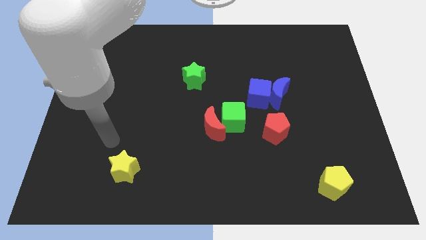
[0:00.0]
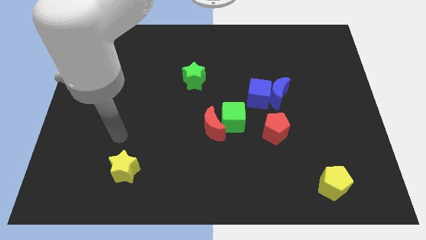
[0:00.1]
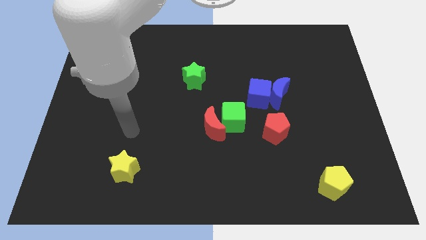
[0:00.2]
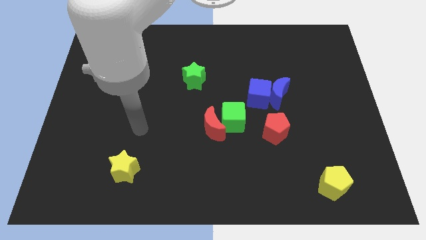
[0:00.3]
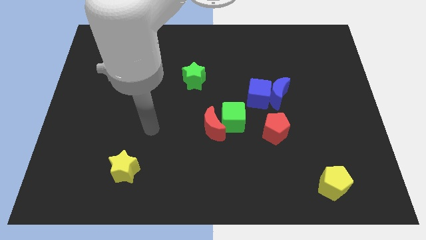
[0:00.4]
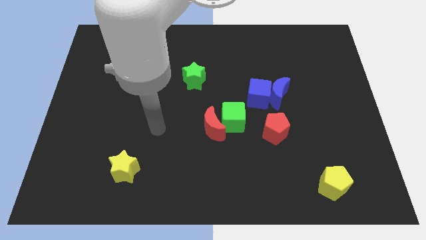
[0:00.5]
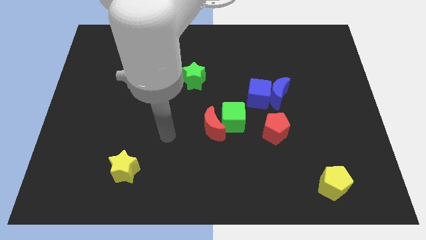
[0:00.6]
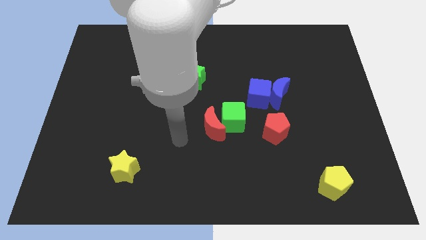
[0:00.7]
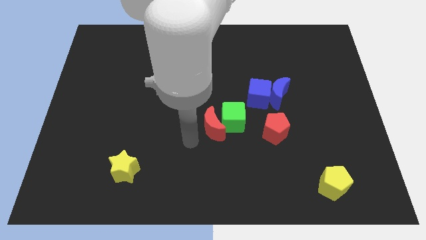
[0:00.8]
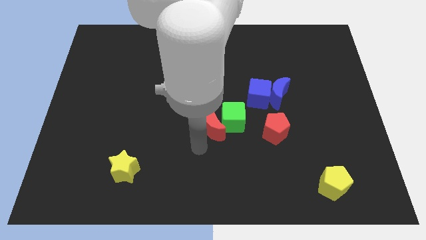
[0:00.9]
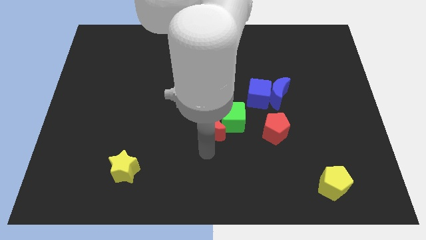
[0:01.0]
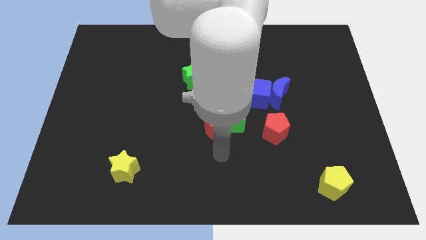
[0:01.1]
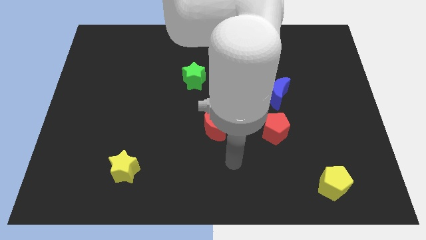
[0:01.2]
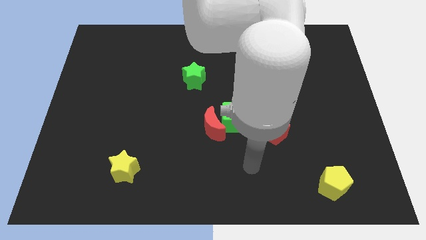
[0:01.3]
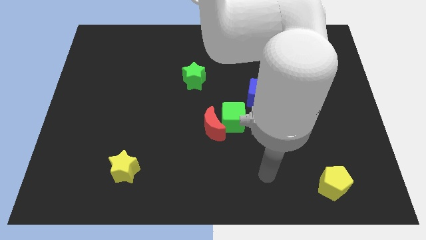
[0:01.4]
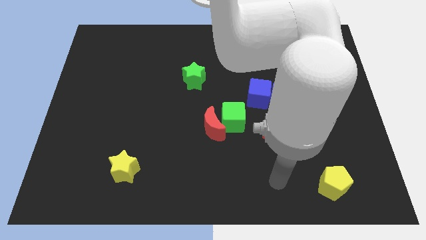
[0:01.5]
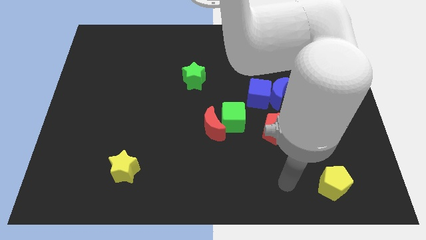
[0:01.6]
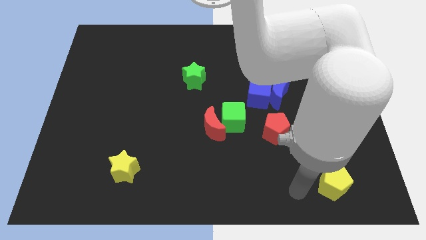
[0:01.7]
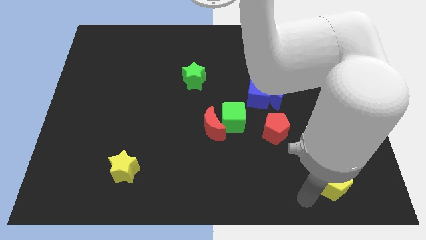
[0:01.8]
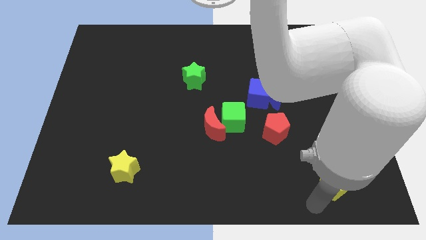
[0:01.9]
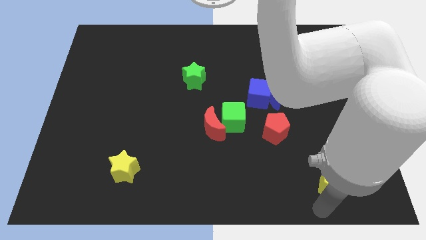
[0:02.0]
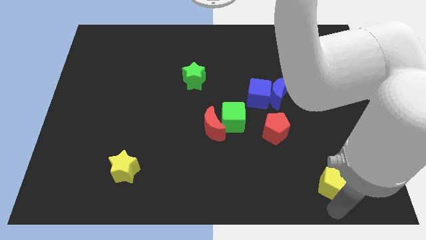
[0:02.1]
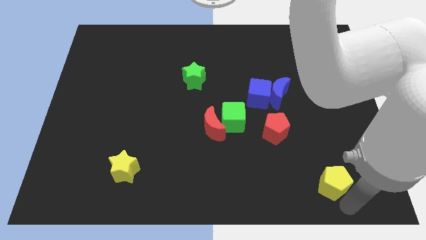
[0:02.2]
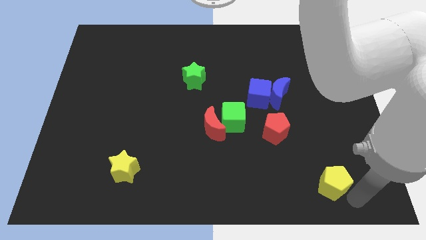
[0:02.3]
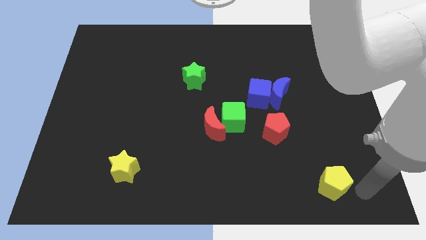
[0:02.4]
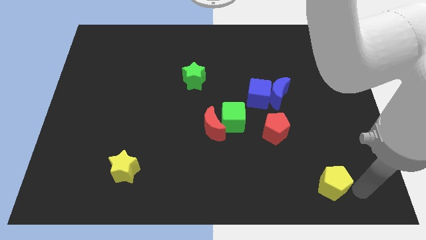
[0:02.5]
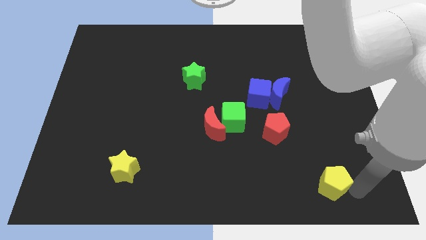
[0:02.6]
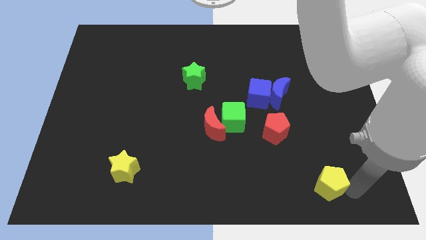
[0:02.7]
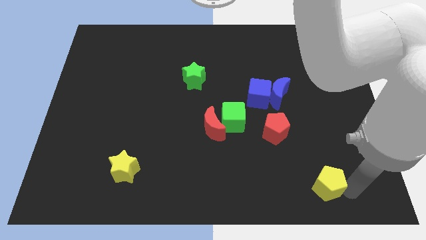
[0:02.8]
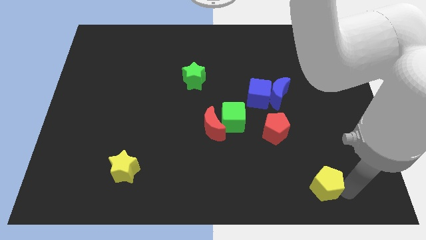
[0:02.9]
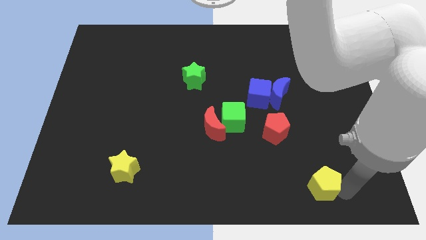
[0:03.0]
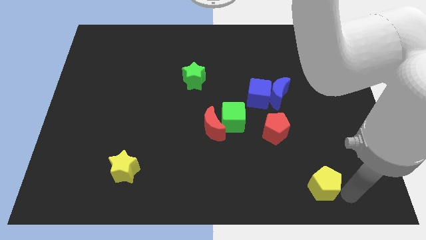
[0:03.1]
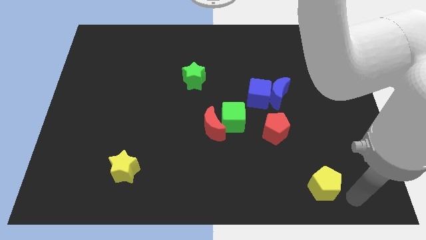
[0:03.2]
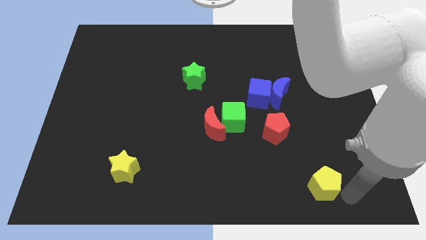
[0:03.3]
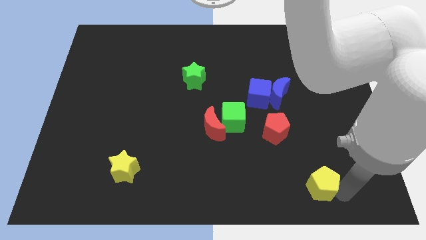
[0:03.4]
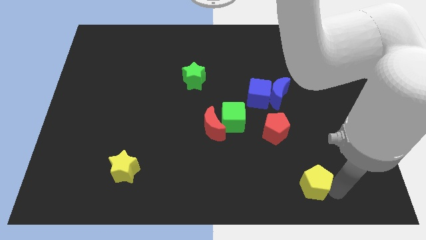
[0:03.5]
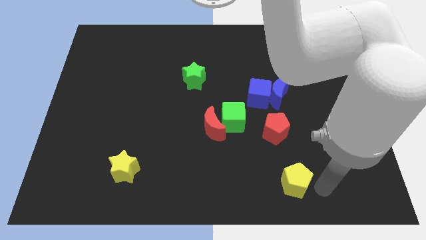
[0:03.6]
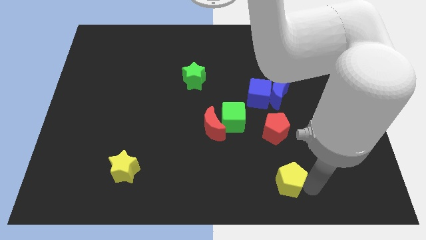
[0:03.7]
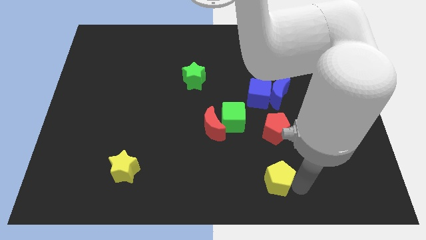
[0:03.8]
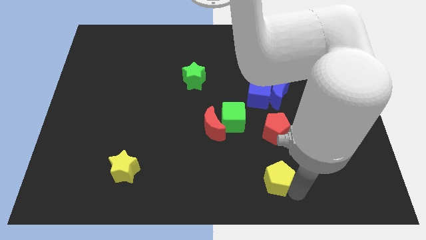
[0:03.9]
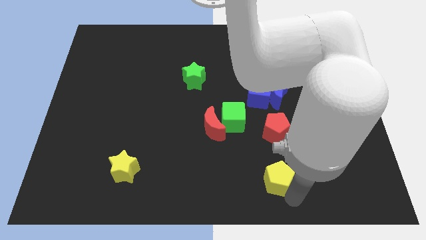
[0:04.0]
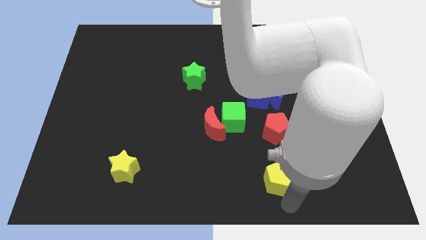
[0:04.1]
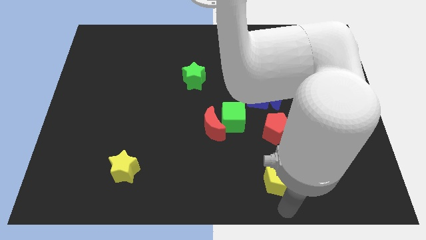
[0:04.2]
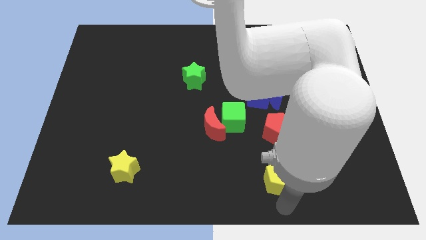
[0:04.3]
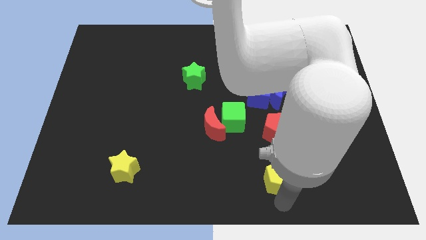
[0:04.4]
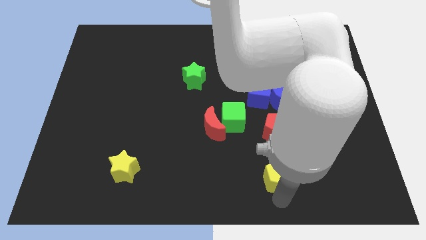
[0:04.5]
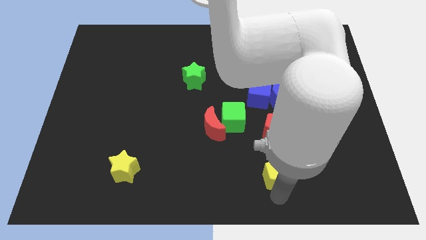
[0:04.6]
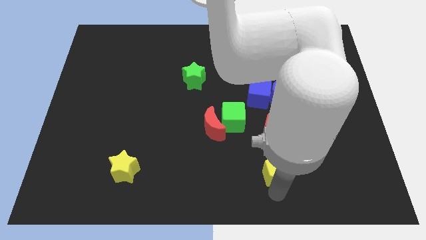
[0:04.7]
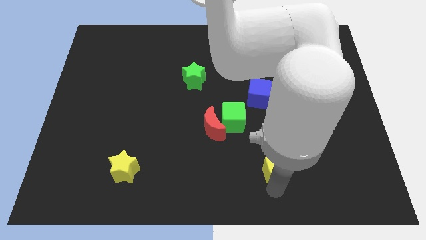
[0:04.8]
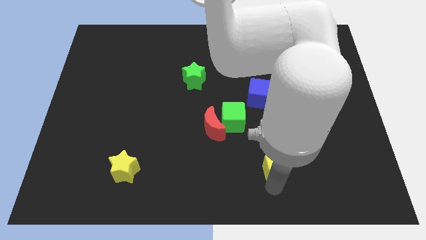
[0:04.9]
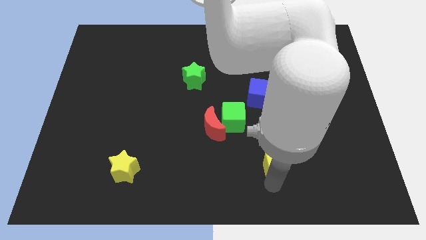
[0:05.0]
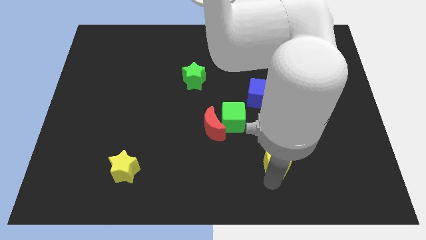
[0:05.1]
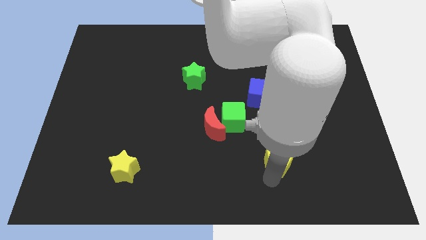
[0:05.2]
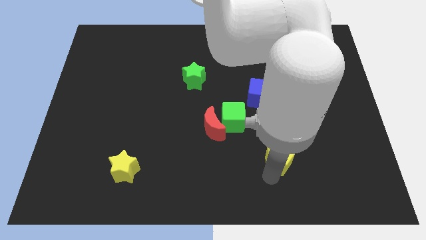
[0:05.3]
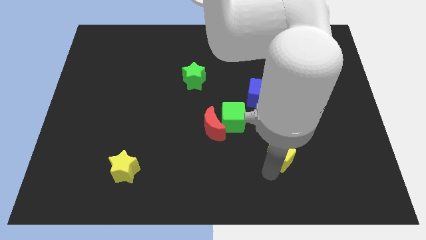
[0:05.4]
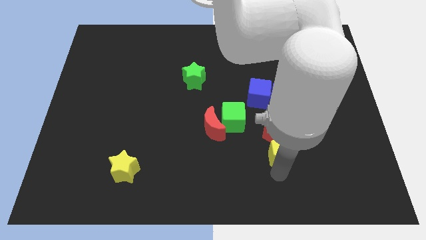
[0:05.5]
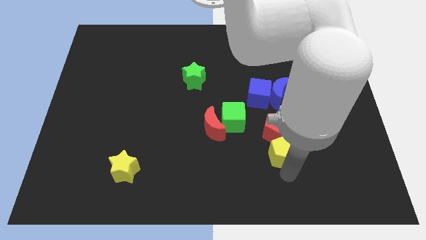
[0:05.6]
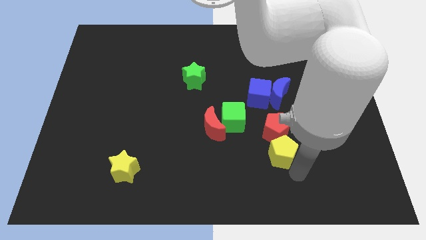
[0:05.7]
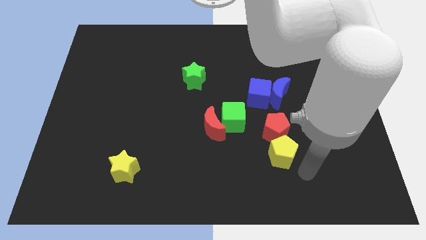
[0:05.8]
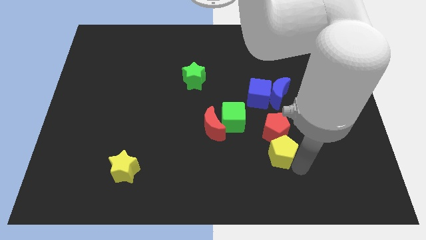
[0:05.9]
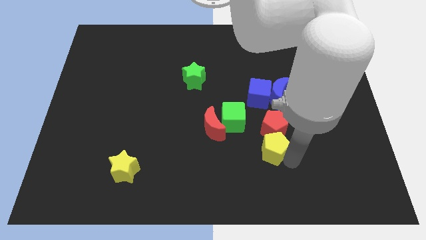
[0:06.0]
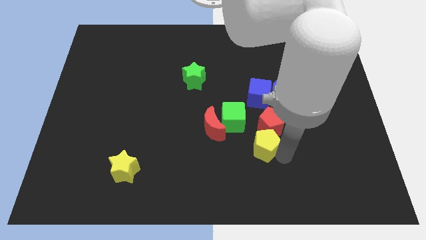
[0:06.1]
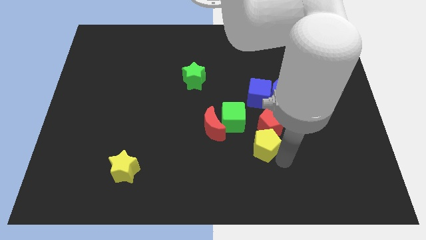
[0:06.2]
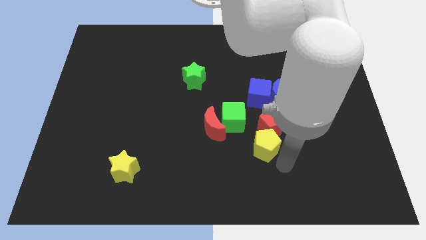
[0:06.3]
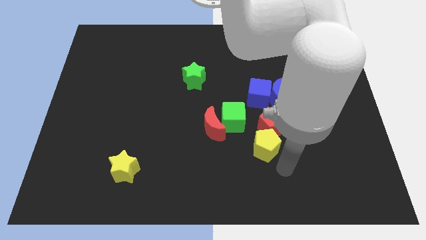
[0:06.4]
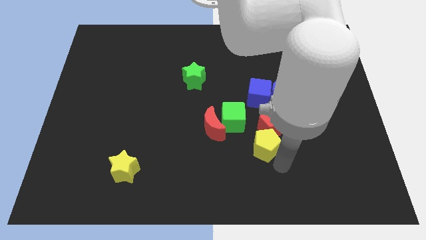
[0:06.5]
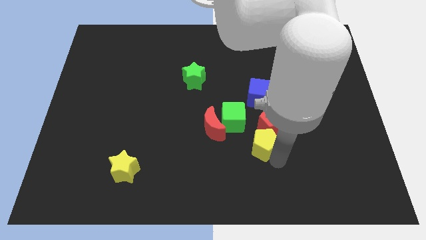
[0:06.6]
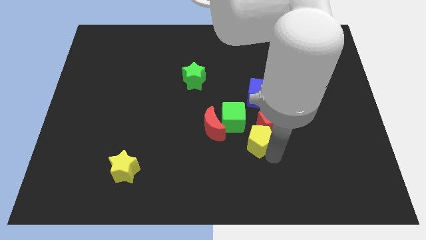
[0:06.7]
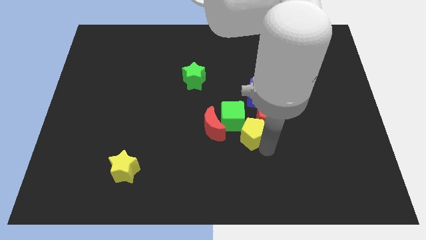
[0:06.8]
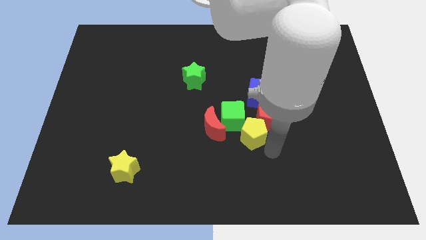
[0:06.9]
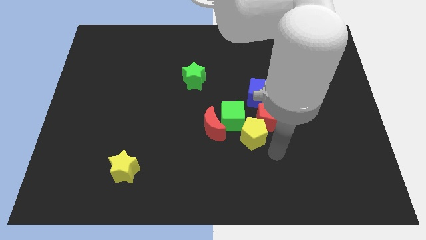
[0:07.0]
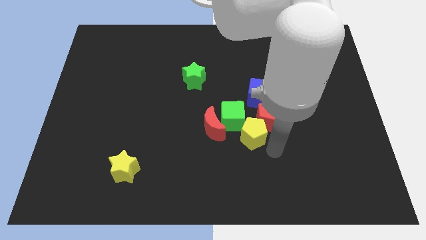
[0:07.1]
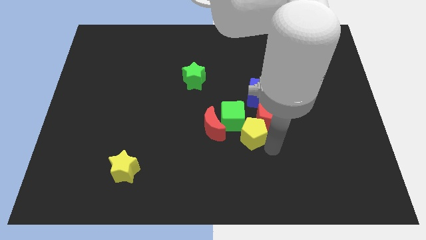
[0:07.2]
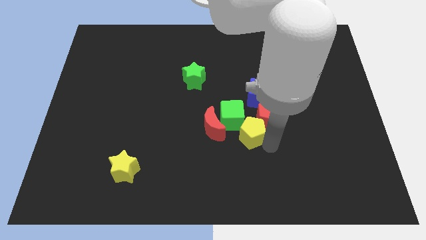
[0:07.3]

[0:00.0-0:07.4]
move the yellow pentagon close to the green cube
